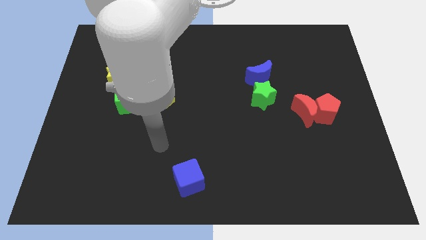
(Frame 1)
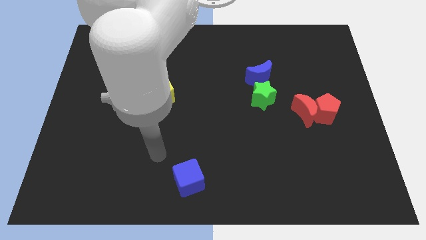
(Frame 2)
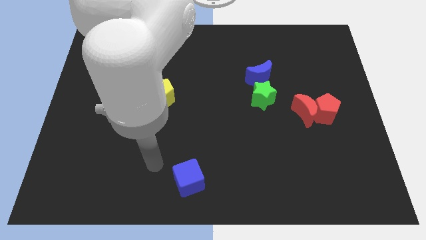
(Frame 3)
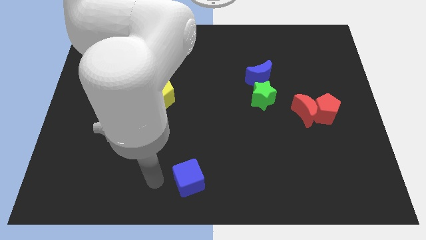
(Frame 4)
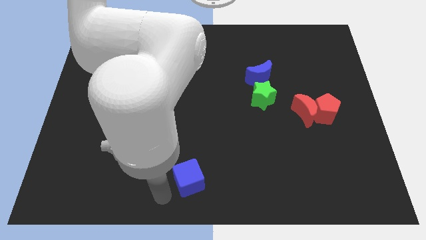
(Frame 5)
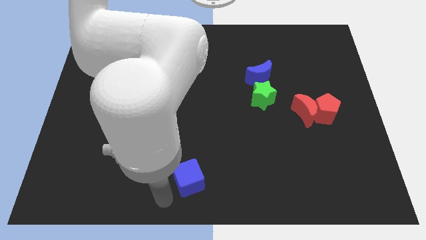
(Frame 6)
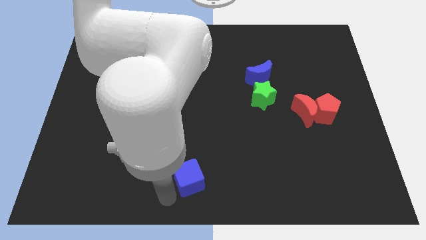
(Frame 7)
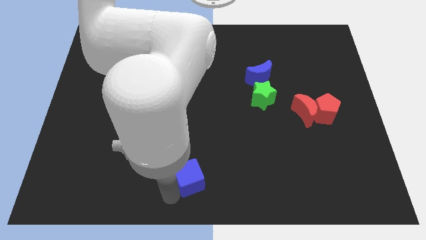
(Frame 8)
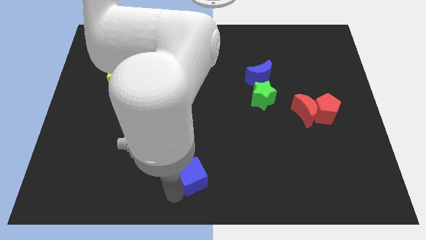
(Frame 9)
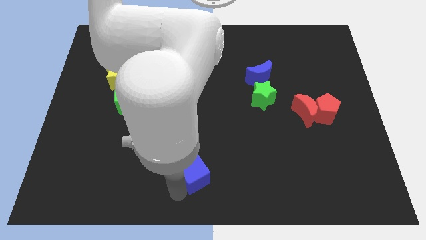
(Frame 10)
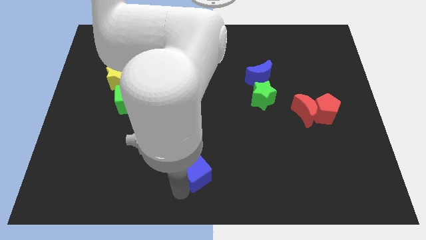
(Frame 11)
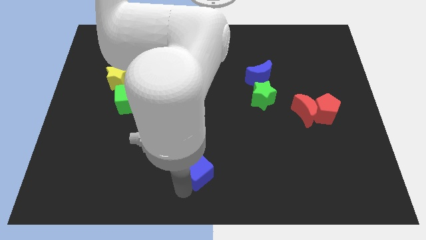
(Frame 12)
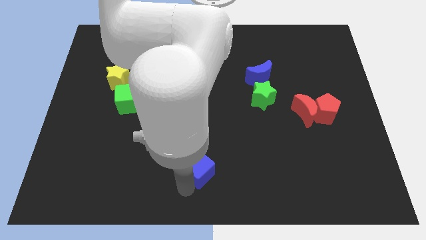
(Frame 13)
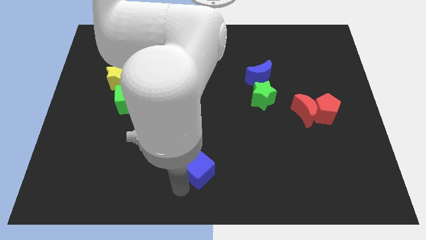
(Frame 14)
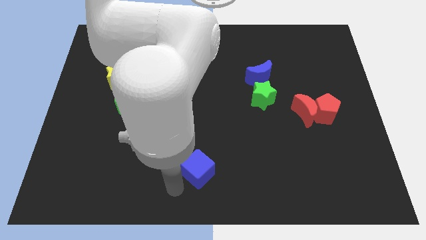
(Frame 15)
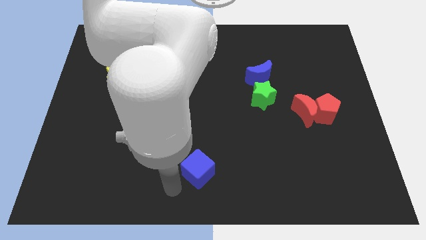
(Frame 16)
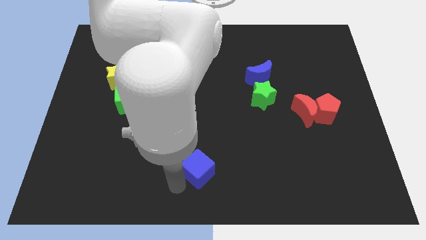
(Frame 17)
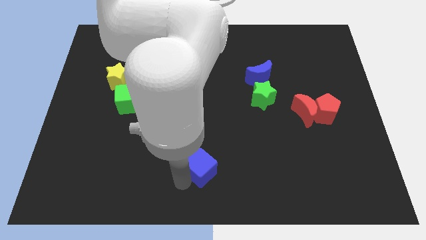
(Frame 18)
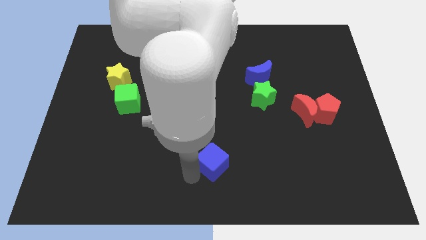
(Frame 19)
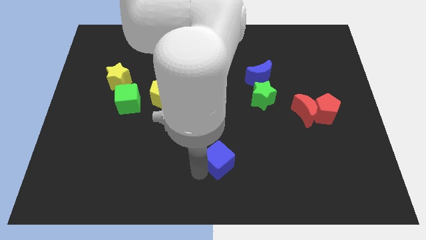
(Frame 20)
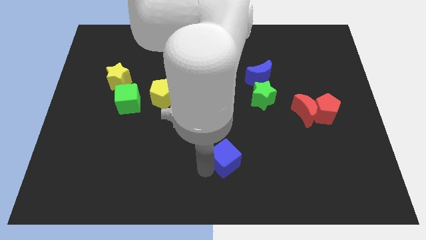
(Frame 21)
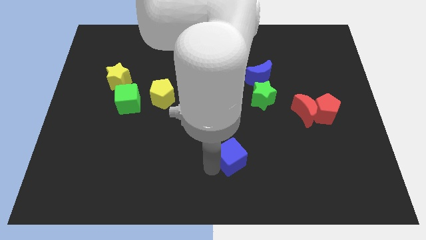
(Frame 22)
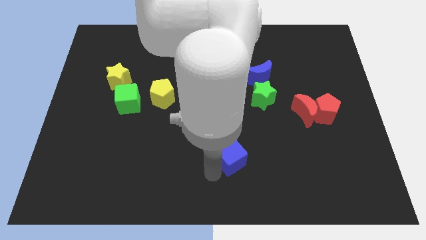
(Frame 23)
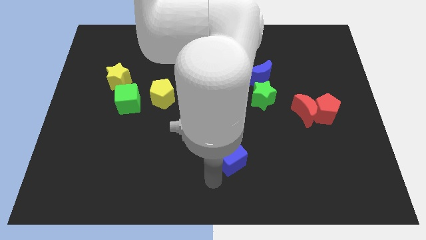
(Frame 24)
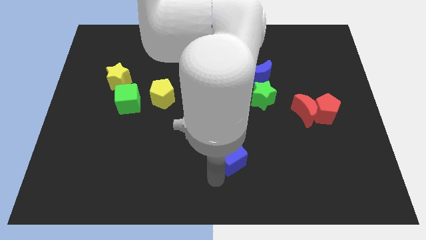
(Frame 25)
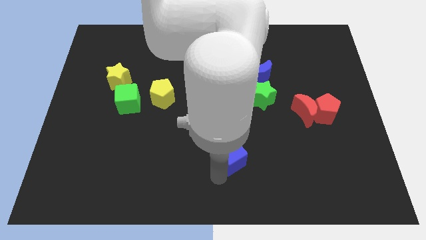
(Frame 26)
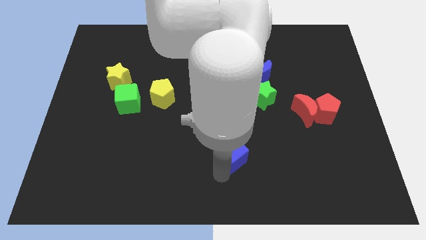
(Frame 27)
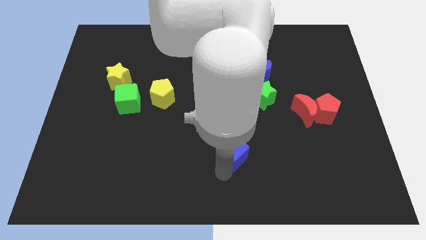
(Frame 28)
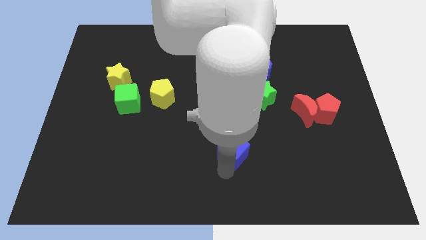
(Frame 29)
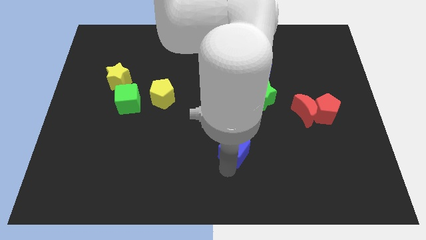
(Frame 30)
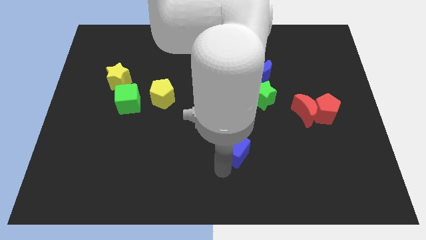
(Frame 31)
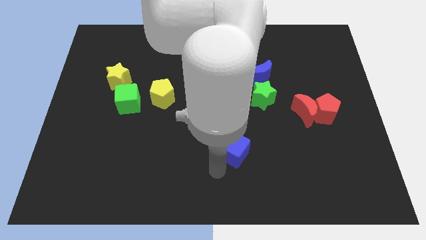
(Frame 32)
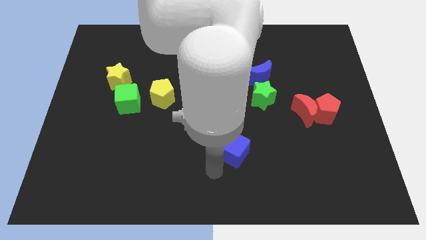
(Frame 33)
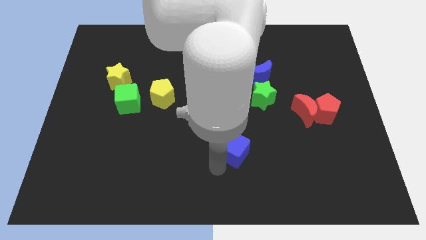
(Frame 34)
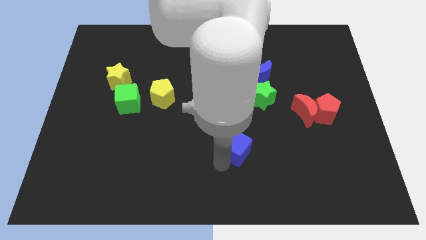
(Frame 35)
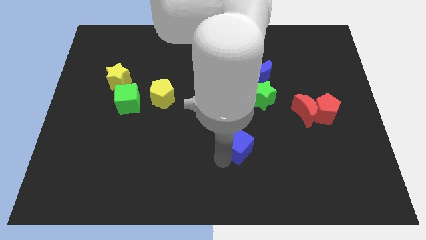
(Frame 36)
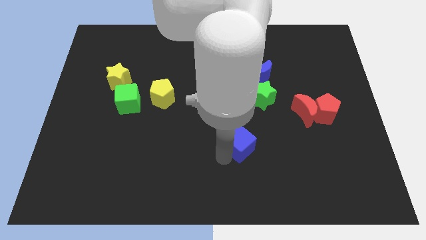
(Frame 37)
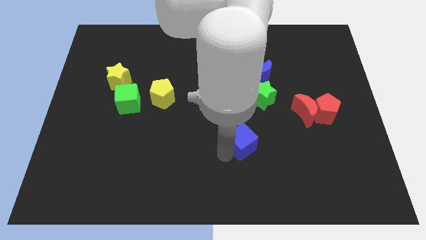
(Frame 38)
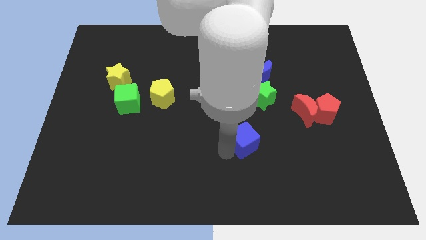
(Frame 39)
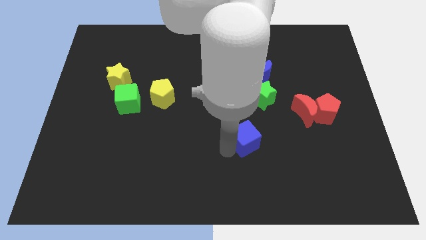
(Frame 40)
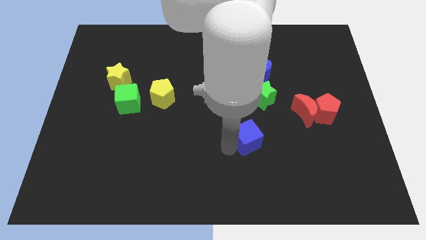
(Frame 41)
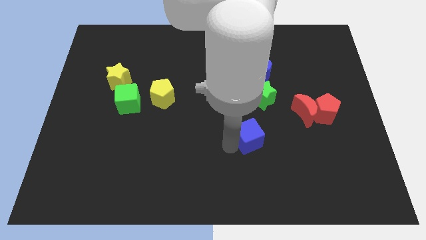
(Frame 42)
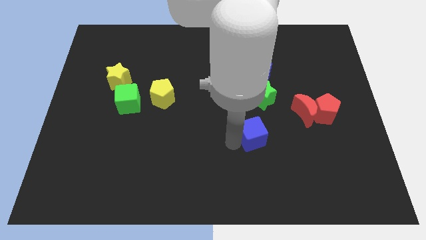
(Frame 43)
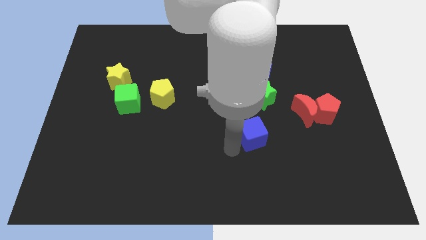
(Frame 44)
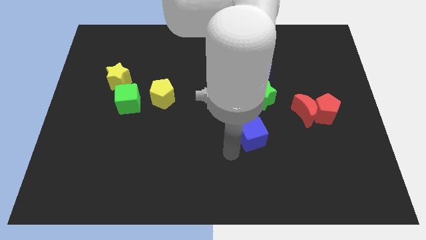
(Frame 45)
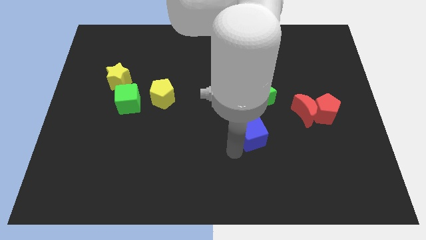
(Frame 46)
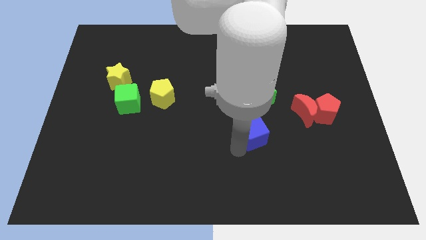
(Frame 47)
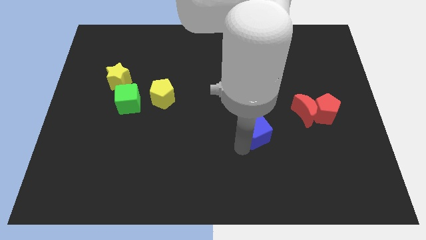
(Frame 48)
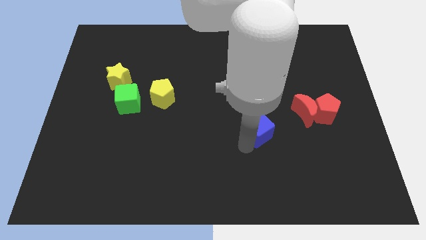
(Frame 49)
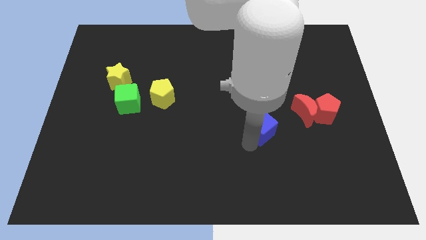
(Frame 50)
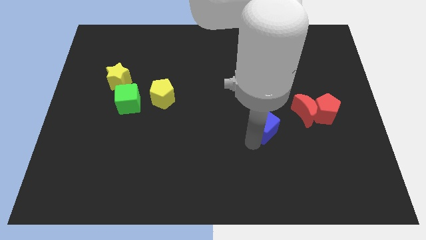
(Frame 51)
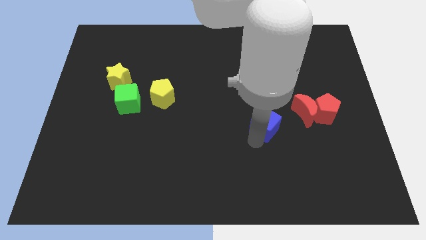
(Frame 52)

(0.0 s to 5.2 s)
slide the blue cube left of the red pentagon

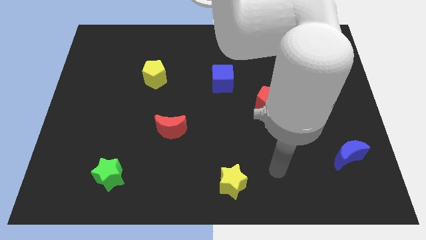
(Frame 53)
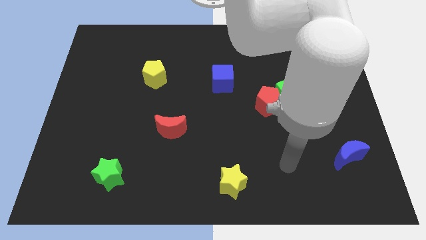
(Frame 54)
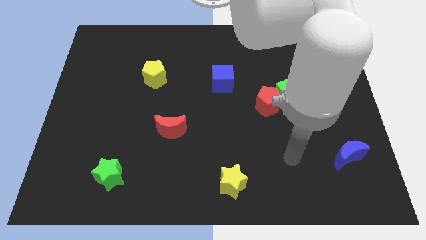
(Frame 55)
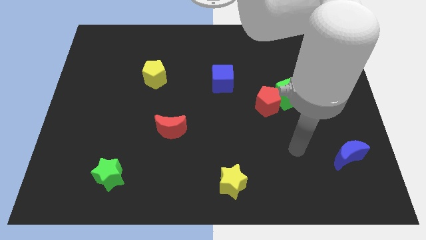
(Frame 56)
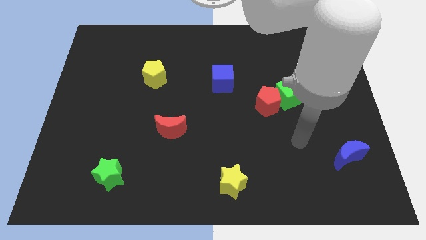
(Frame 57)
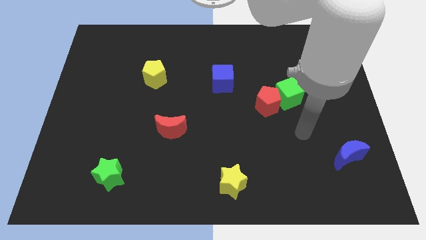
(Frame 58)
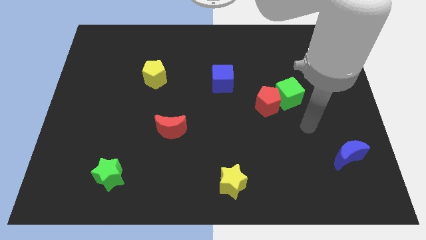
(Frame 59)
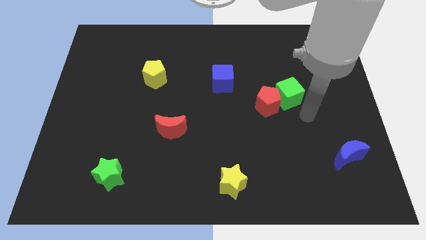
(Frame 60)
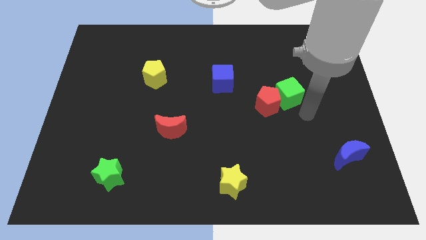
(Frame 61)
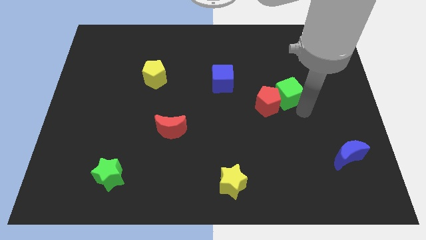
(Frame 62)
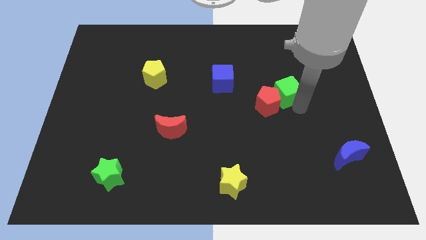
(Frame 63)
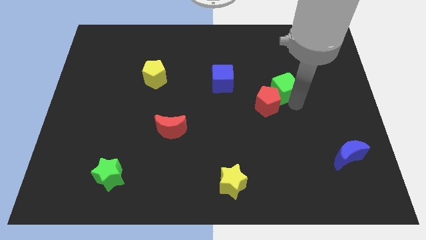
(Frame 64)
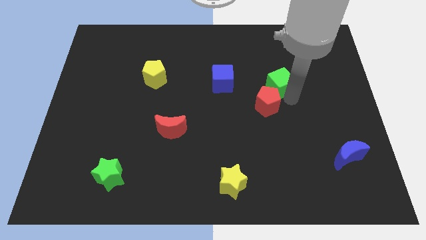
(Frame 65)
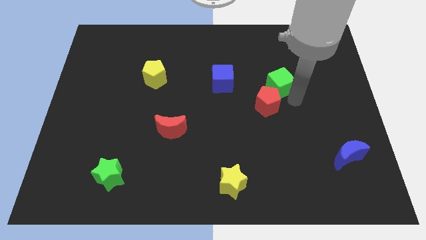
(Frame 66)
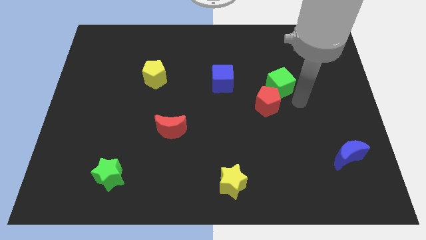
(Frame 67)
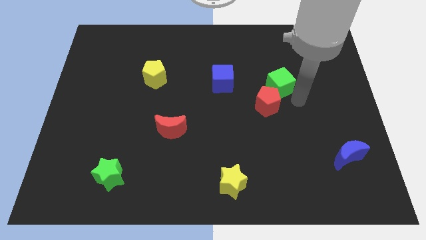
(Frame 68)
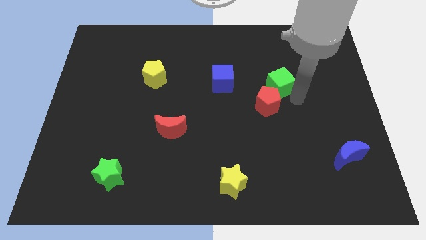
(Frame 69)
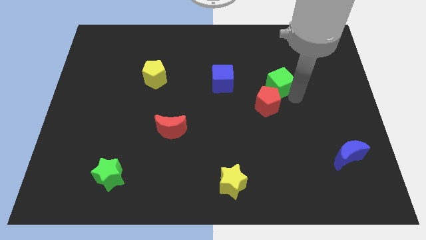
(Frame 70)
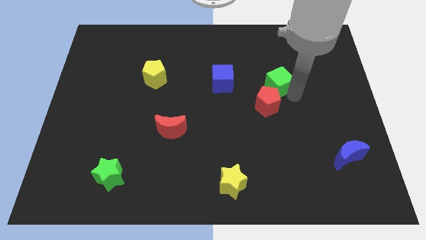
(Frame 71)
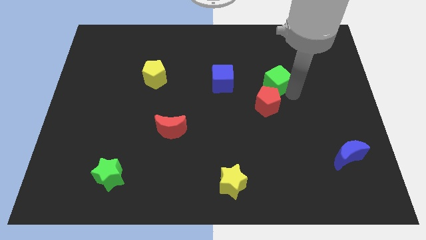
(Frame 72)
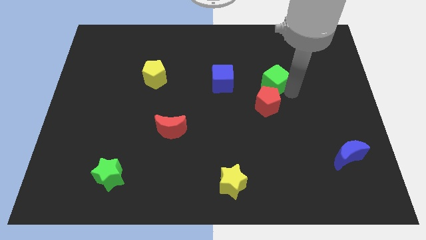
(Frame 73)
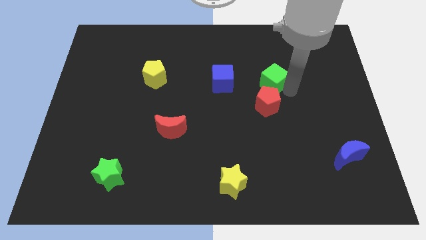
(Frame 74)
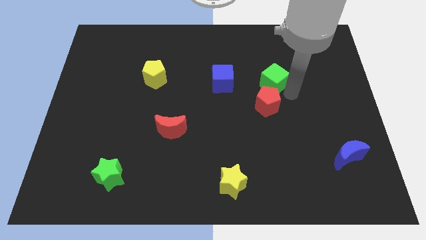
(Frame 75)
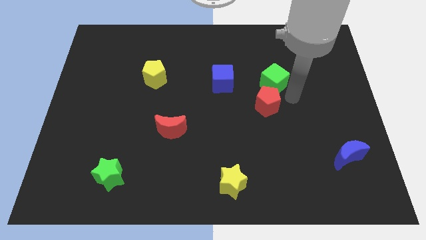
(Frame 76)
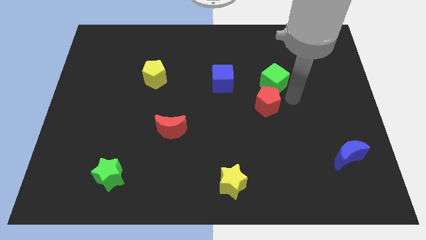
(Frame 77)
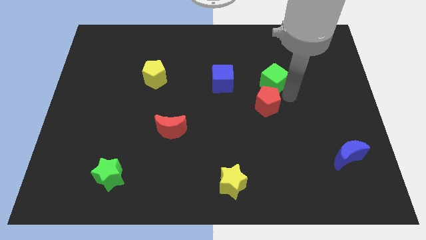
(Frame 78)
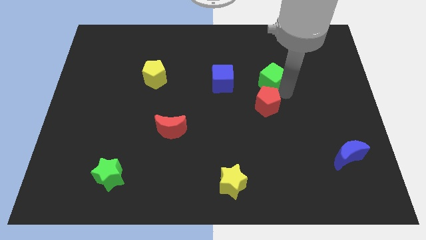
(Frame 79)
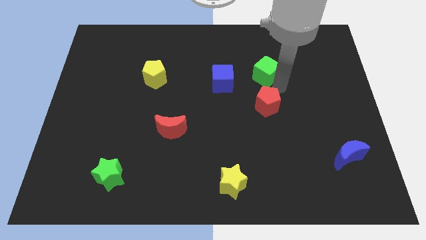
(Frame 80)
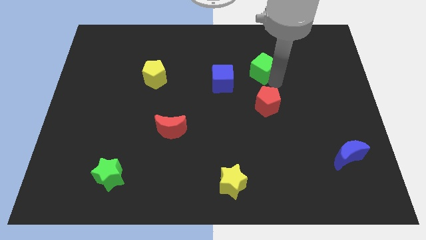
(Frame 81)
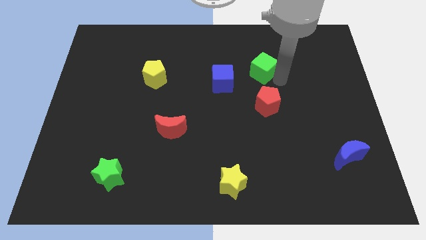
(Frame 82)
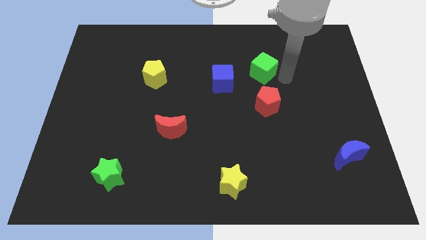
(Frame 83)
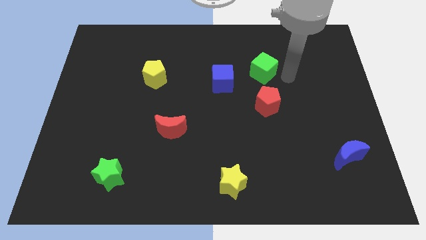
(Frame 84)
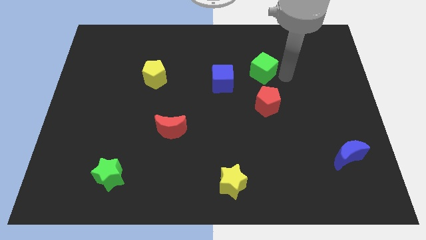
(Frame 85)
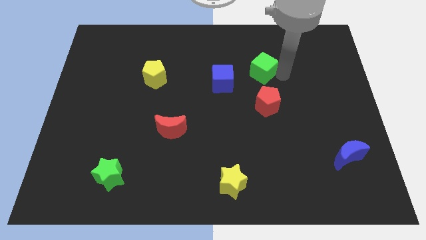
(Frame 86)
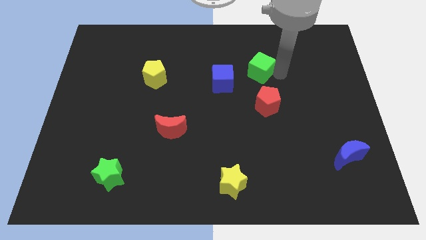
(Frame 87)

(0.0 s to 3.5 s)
move the green cube to the top right side of the blue cube
